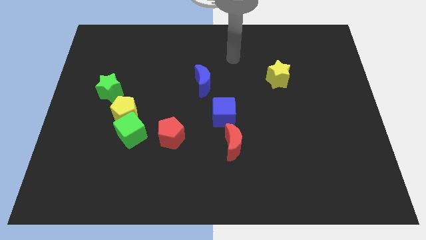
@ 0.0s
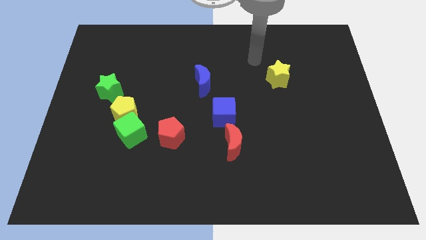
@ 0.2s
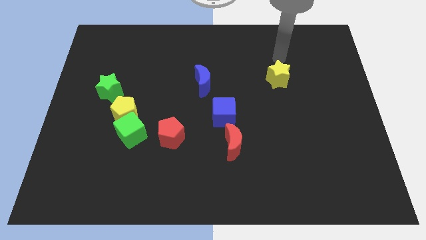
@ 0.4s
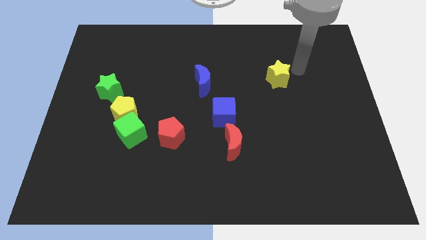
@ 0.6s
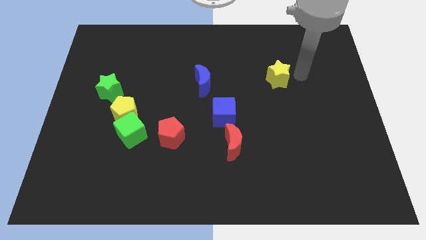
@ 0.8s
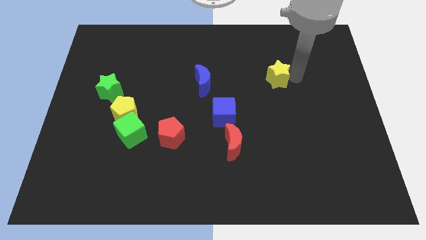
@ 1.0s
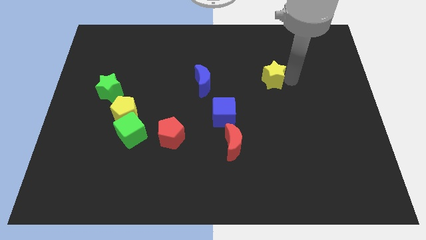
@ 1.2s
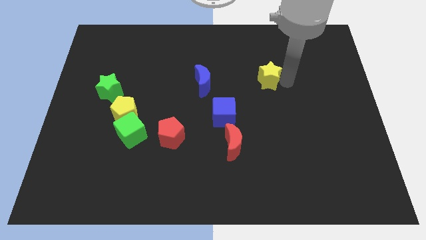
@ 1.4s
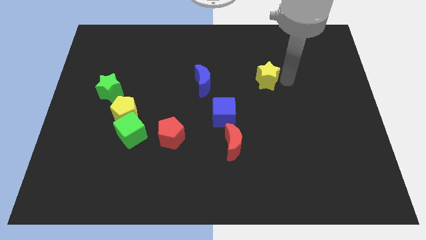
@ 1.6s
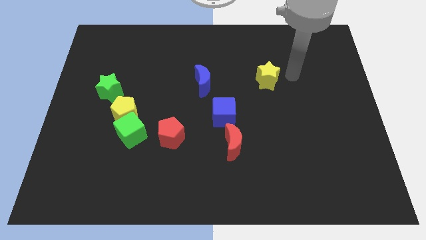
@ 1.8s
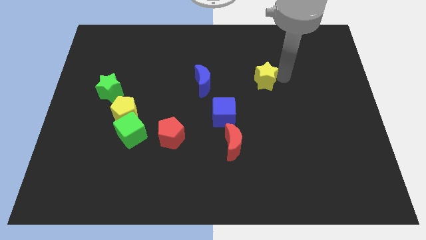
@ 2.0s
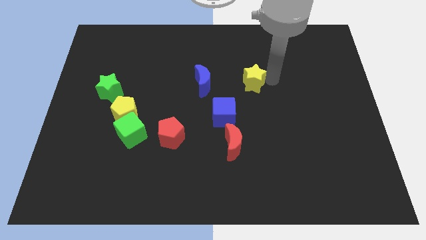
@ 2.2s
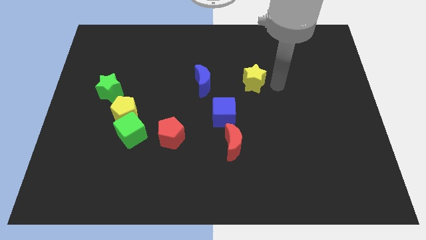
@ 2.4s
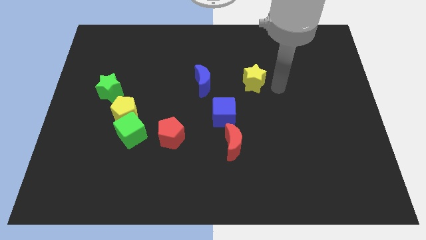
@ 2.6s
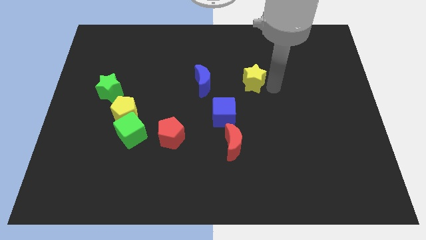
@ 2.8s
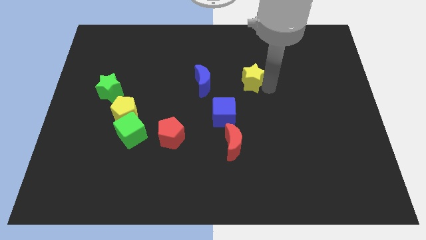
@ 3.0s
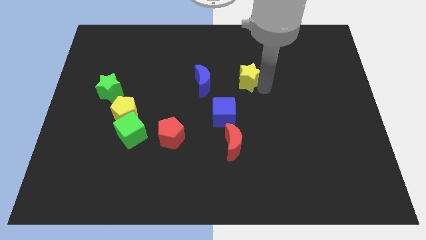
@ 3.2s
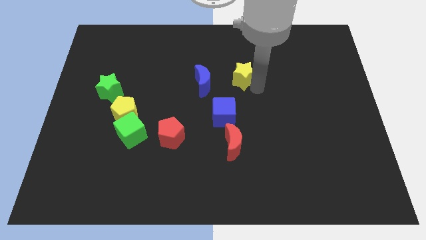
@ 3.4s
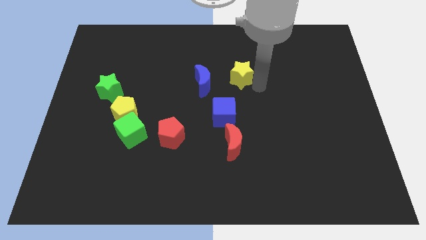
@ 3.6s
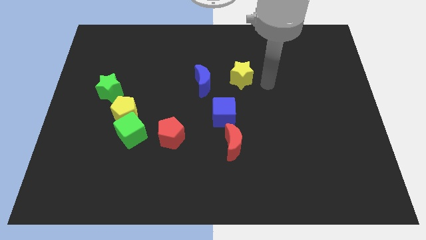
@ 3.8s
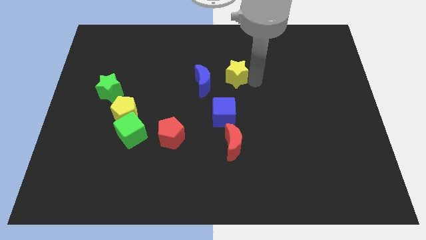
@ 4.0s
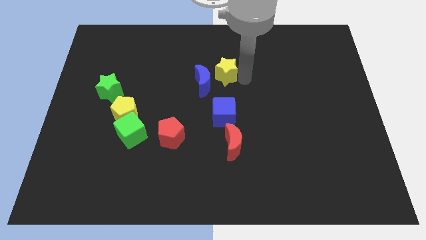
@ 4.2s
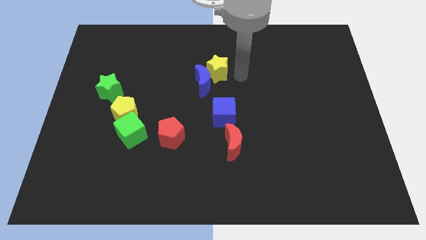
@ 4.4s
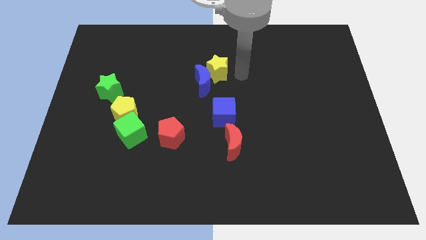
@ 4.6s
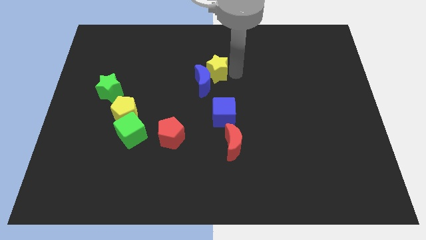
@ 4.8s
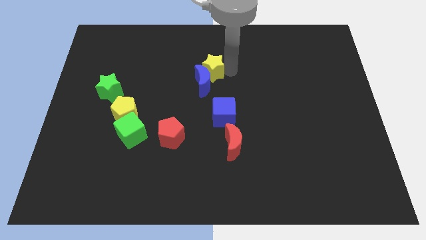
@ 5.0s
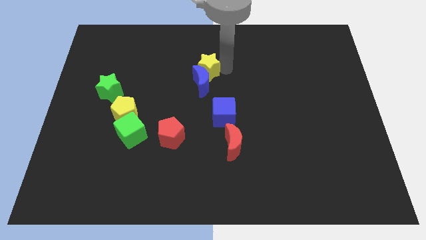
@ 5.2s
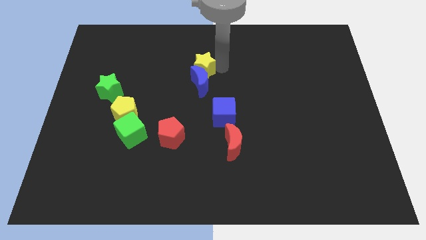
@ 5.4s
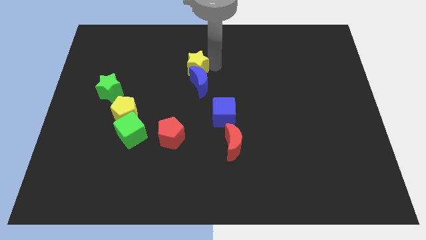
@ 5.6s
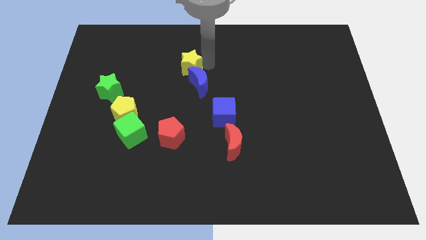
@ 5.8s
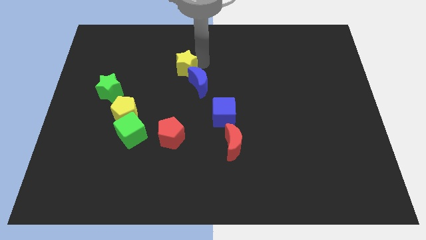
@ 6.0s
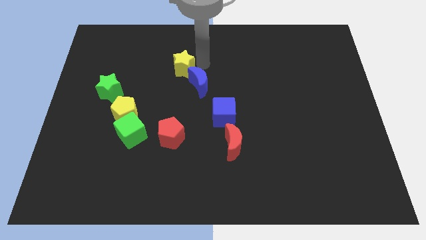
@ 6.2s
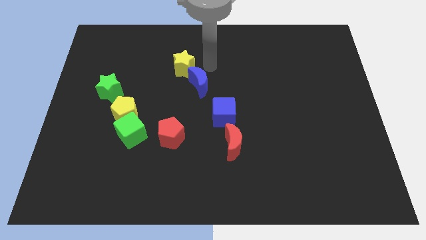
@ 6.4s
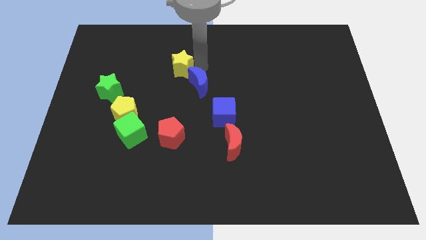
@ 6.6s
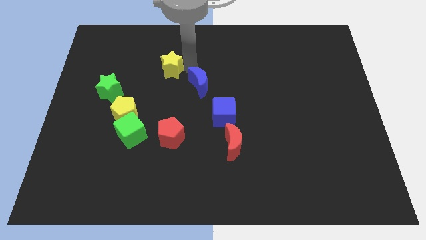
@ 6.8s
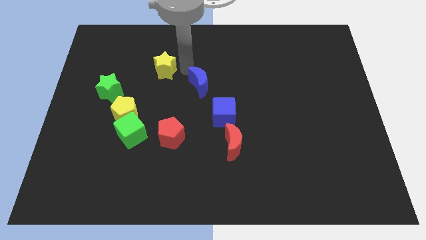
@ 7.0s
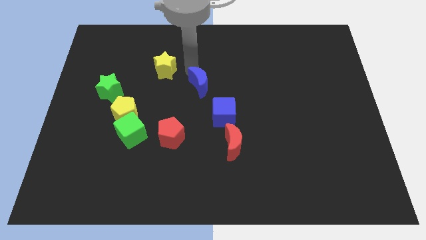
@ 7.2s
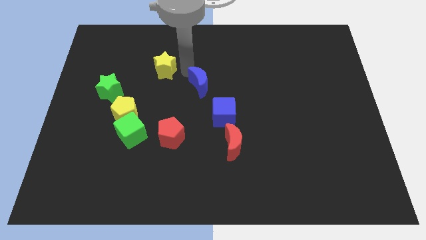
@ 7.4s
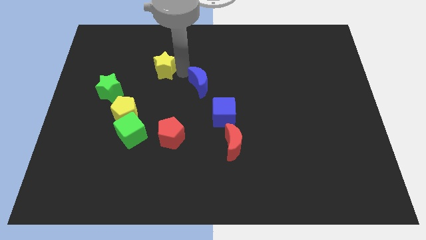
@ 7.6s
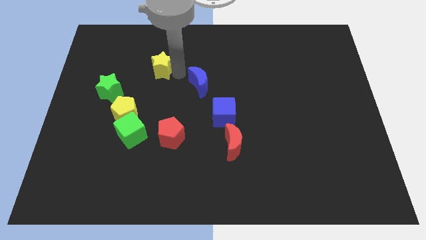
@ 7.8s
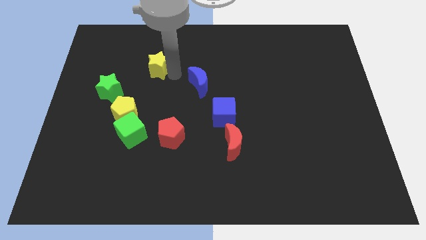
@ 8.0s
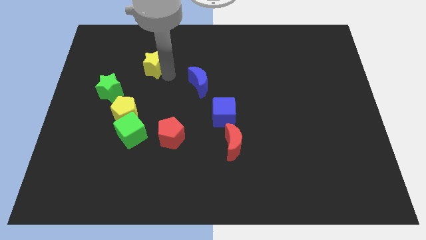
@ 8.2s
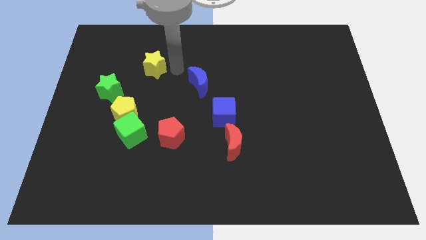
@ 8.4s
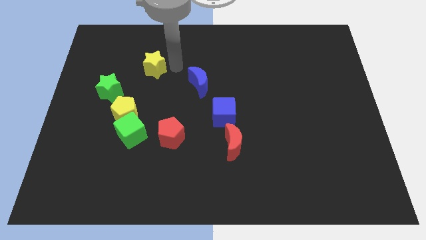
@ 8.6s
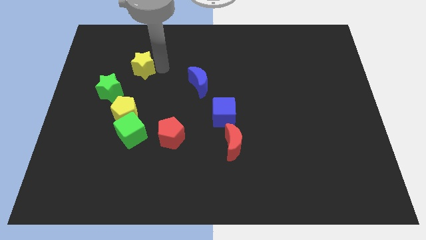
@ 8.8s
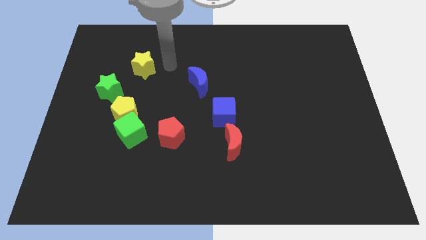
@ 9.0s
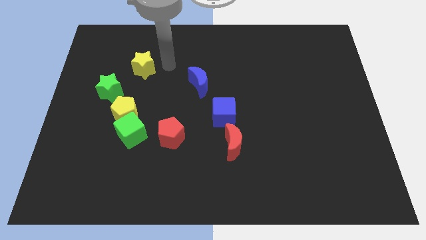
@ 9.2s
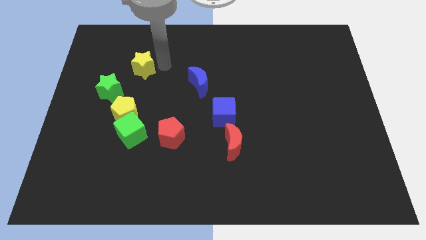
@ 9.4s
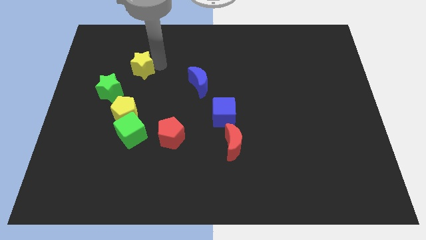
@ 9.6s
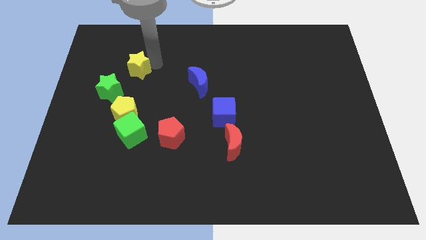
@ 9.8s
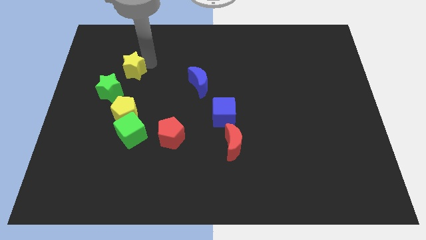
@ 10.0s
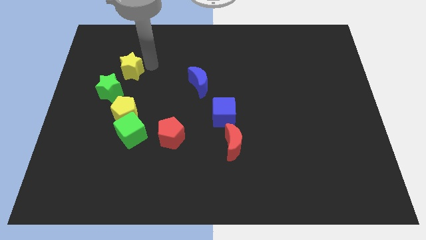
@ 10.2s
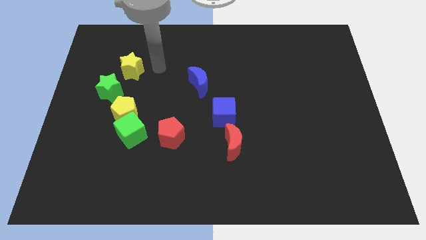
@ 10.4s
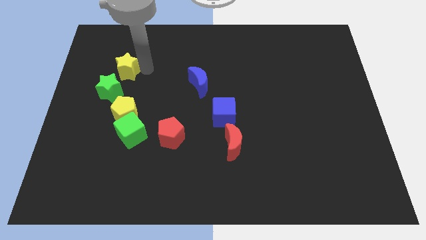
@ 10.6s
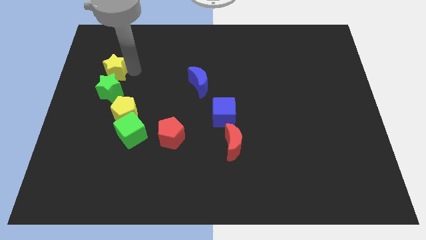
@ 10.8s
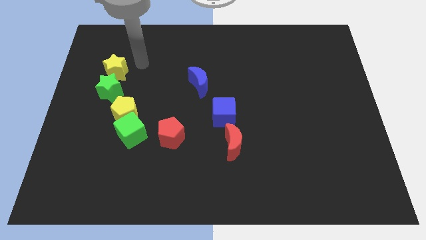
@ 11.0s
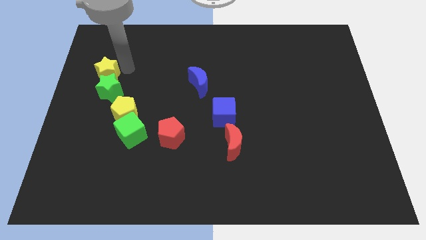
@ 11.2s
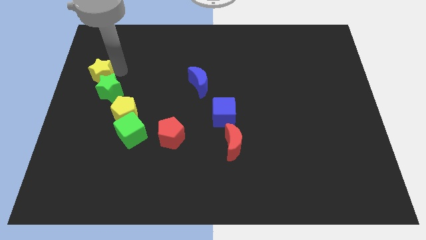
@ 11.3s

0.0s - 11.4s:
slide the yellow star to the left side of the board
